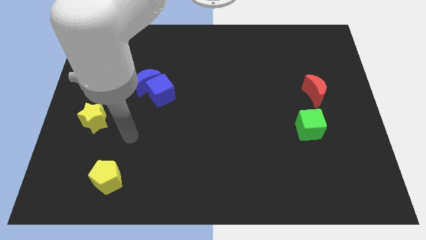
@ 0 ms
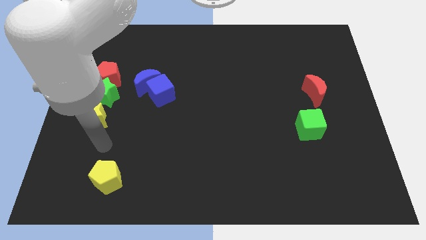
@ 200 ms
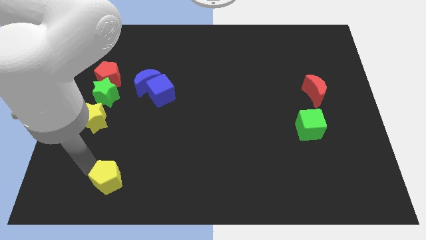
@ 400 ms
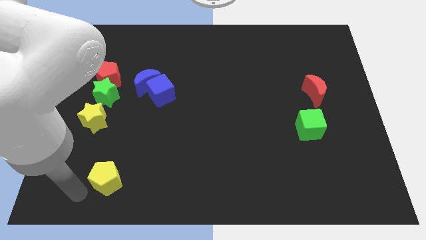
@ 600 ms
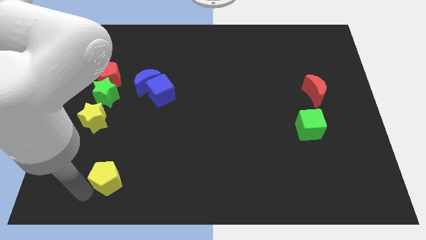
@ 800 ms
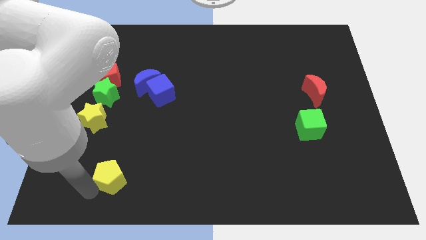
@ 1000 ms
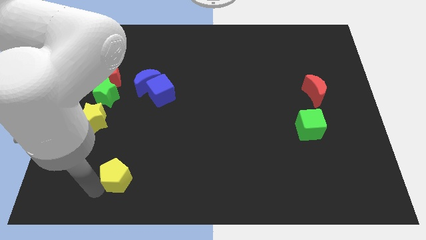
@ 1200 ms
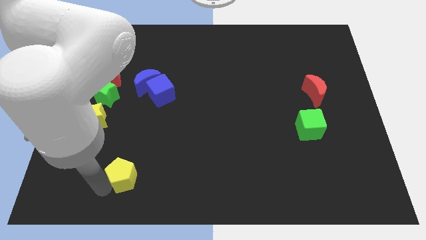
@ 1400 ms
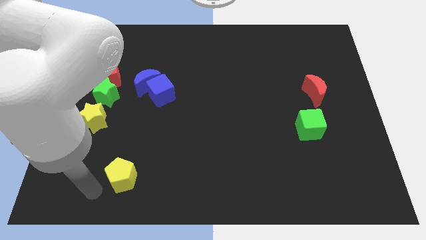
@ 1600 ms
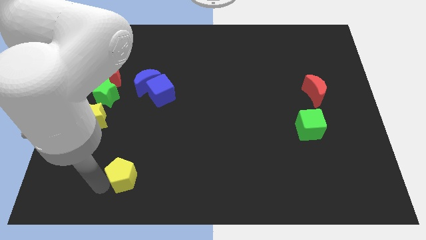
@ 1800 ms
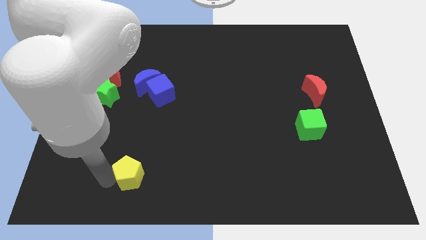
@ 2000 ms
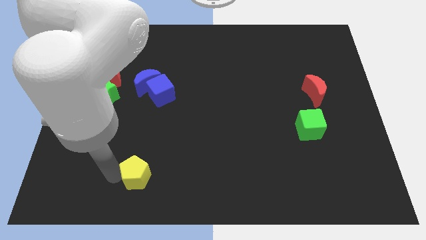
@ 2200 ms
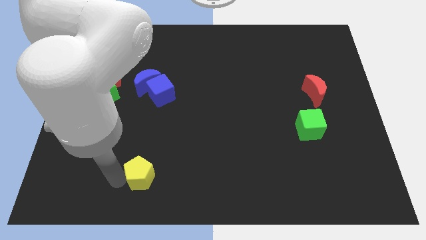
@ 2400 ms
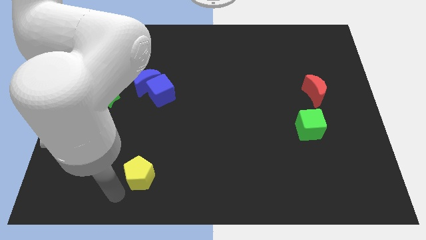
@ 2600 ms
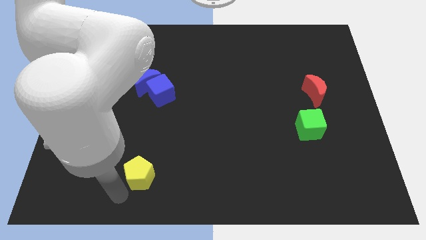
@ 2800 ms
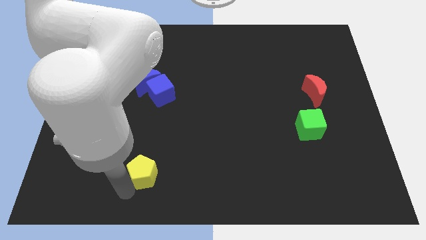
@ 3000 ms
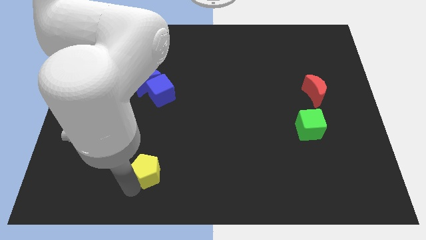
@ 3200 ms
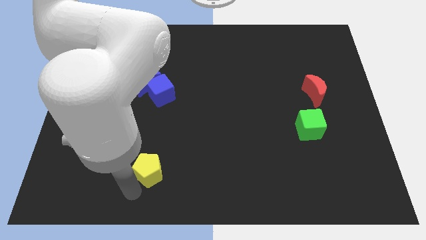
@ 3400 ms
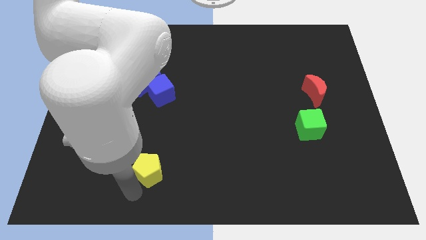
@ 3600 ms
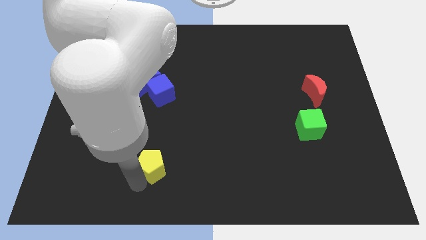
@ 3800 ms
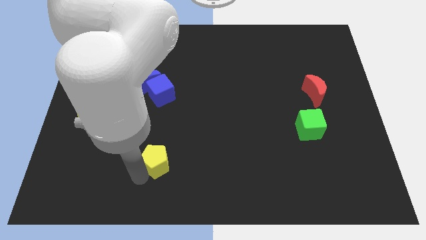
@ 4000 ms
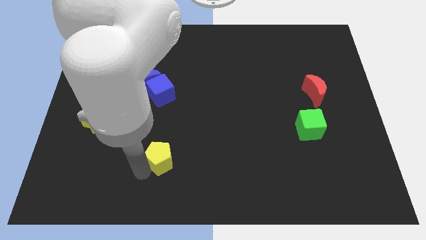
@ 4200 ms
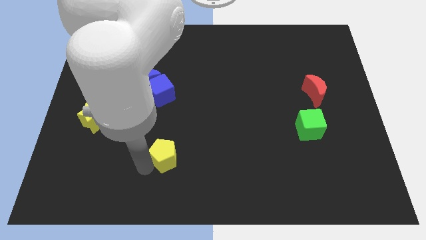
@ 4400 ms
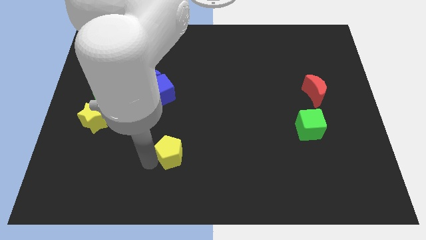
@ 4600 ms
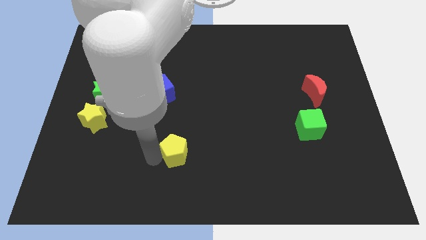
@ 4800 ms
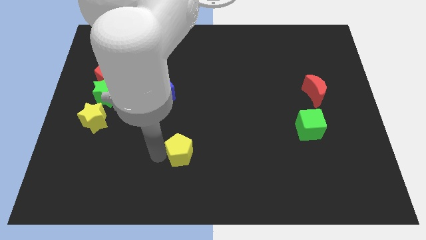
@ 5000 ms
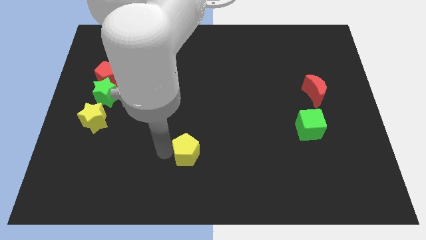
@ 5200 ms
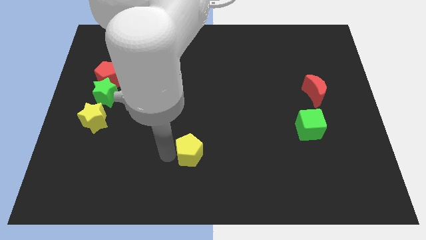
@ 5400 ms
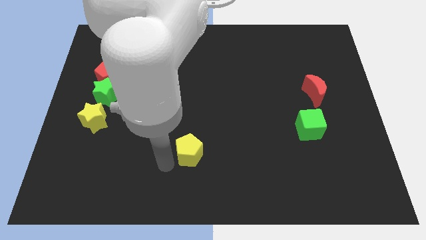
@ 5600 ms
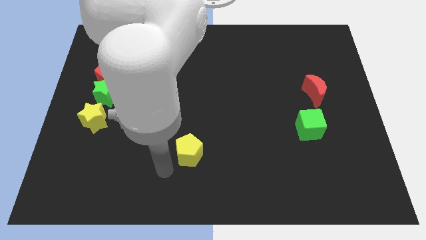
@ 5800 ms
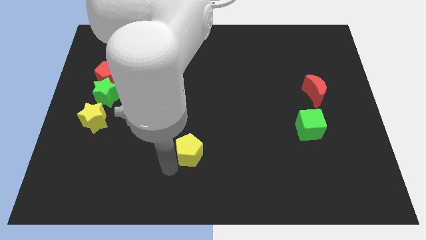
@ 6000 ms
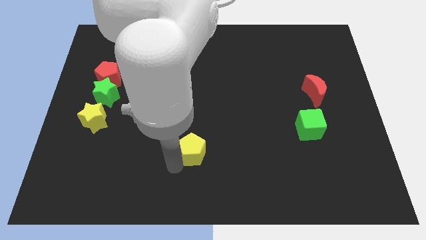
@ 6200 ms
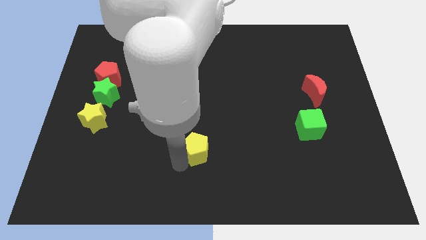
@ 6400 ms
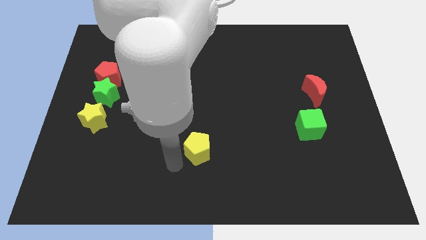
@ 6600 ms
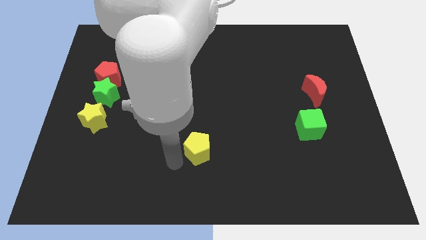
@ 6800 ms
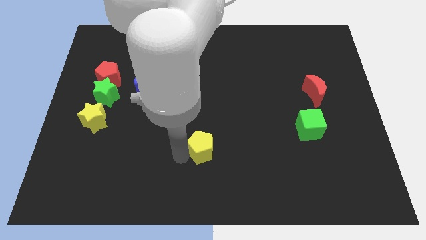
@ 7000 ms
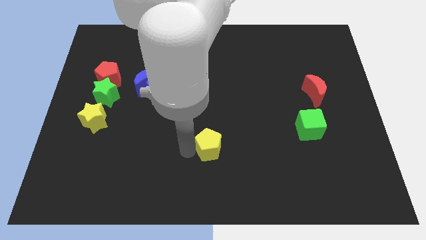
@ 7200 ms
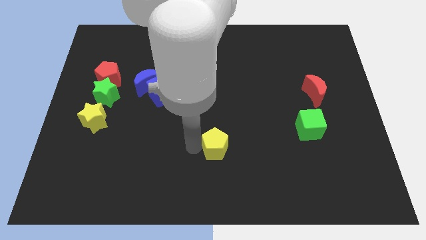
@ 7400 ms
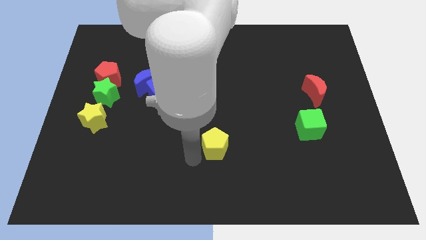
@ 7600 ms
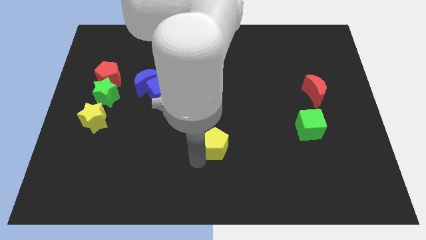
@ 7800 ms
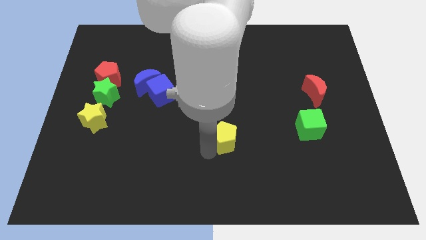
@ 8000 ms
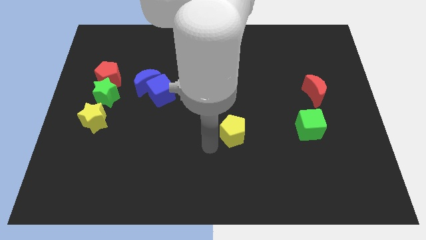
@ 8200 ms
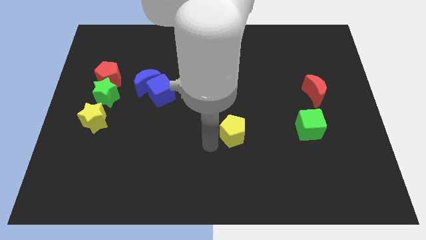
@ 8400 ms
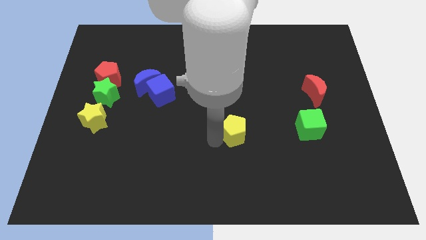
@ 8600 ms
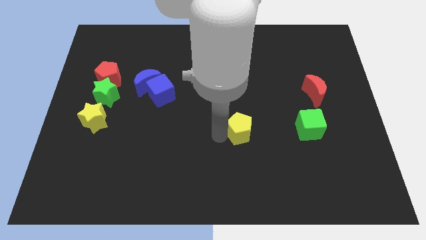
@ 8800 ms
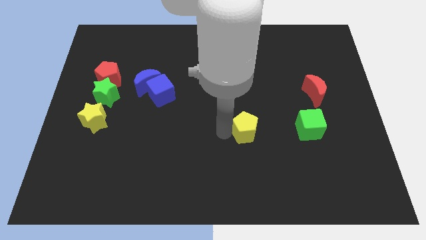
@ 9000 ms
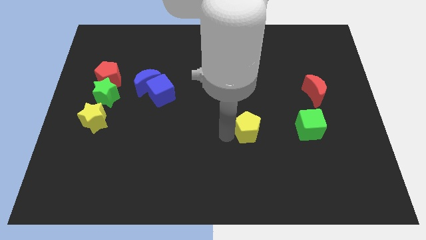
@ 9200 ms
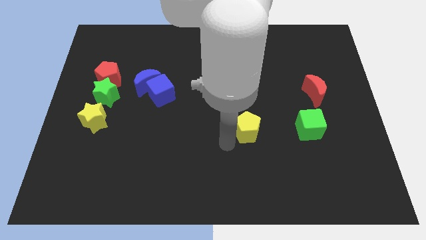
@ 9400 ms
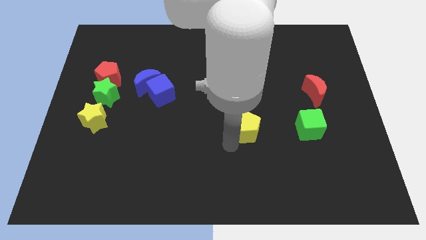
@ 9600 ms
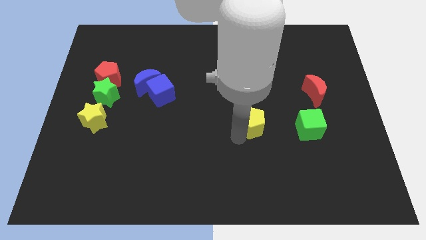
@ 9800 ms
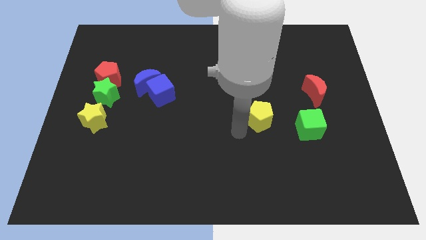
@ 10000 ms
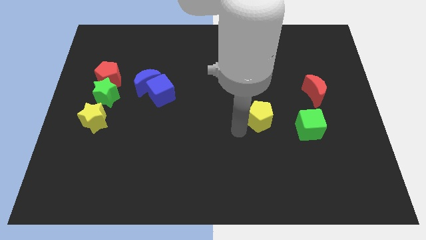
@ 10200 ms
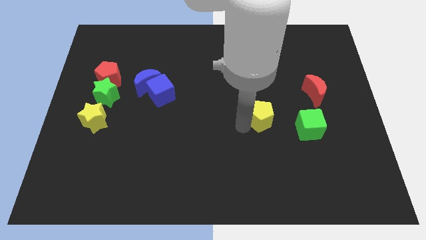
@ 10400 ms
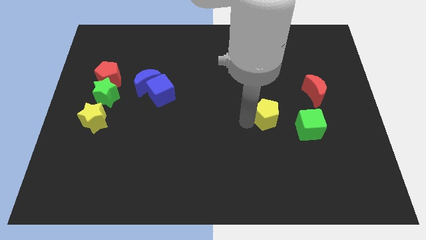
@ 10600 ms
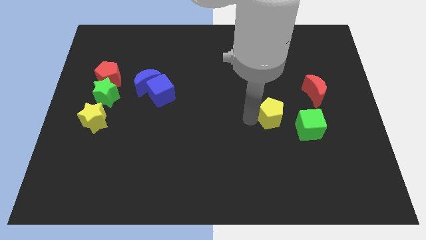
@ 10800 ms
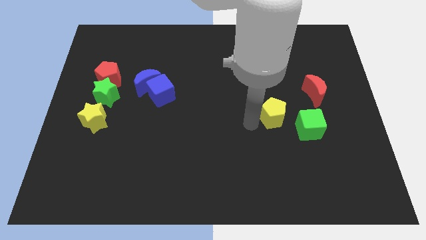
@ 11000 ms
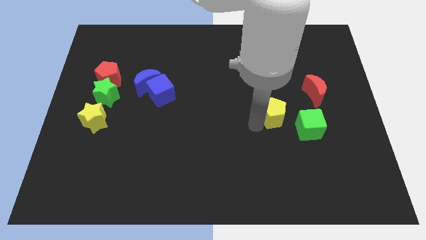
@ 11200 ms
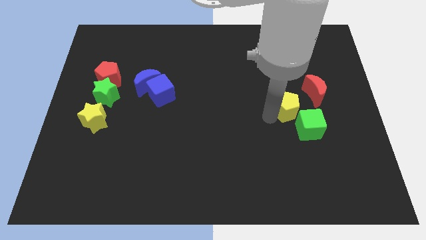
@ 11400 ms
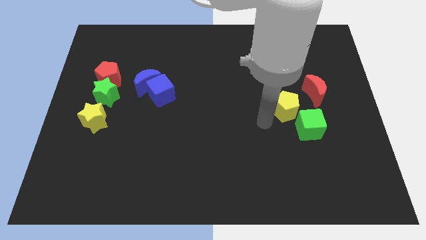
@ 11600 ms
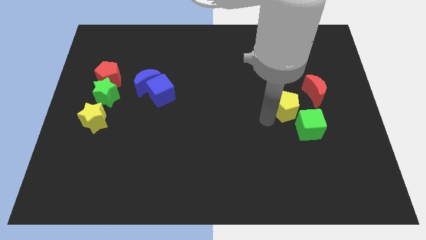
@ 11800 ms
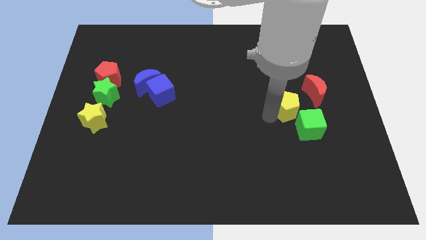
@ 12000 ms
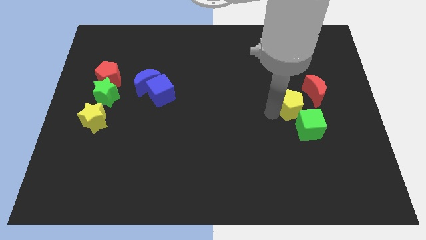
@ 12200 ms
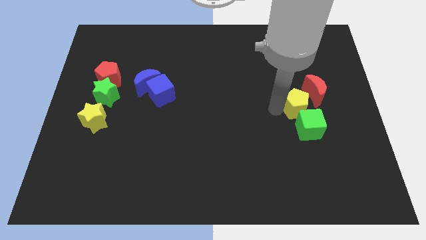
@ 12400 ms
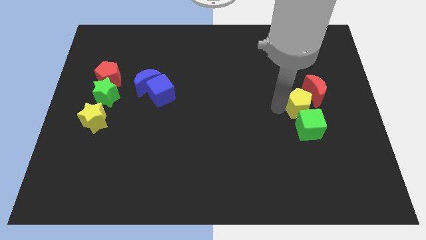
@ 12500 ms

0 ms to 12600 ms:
slide the yellow pentagon next to the red moon

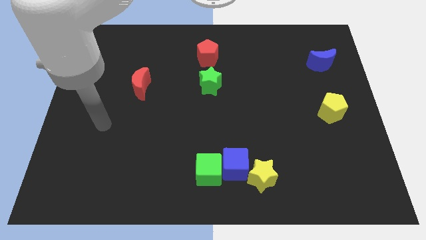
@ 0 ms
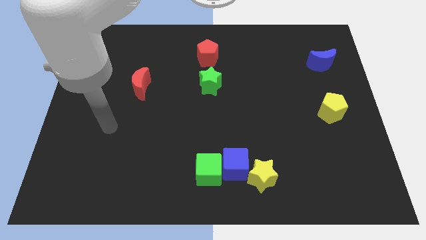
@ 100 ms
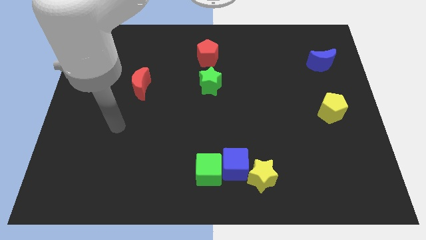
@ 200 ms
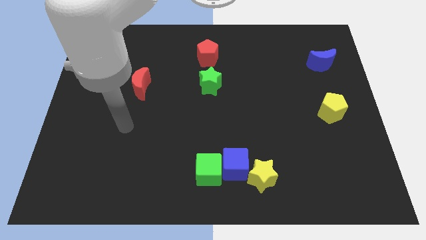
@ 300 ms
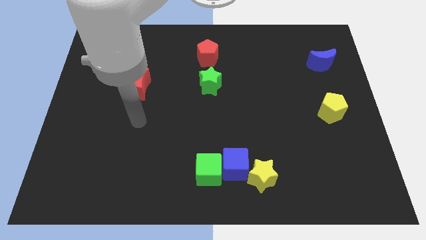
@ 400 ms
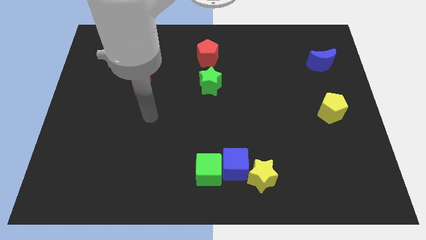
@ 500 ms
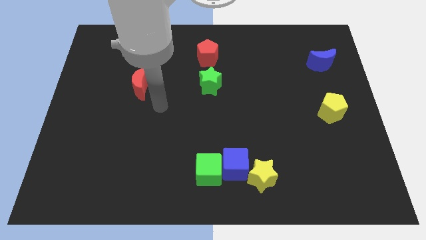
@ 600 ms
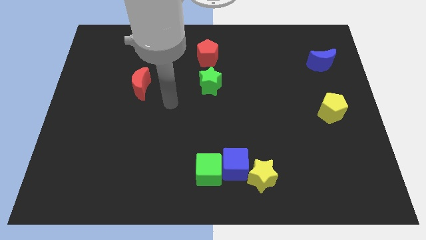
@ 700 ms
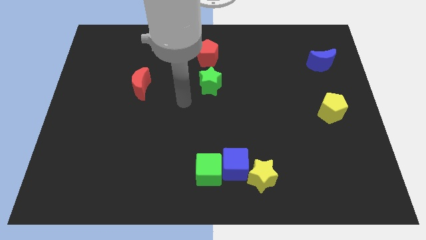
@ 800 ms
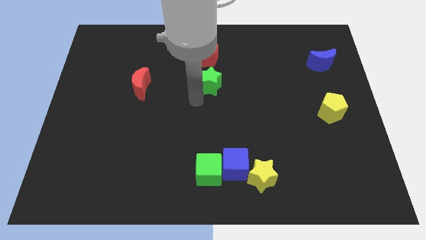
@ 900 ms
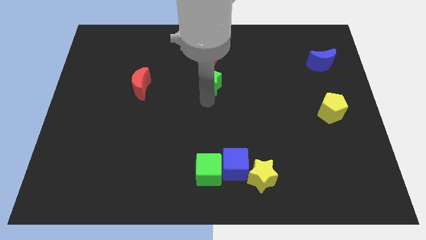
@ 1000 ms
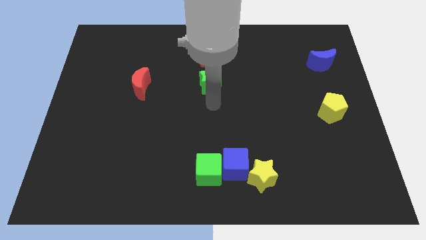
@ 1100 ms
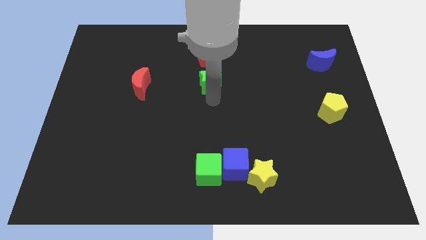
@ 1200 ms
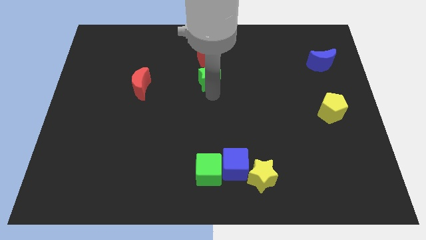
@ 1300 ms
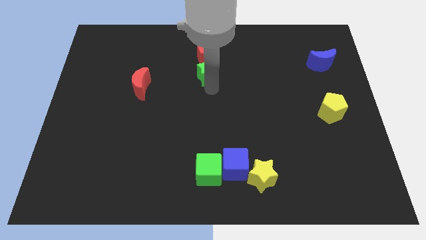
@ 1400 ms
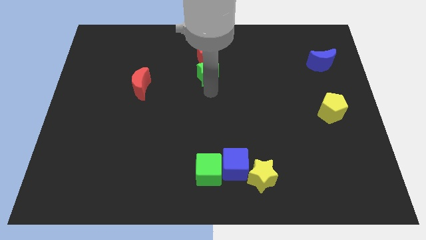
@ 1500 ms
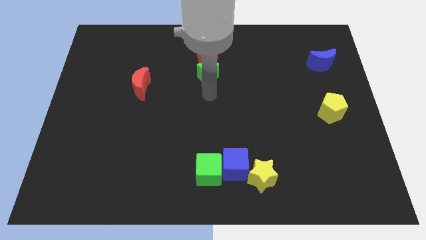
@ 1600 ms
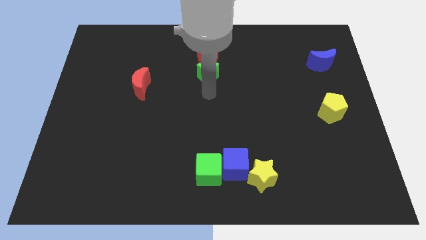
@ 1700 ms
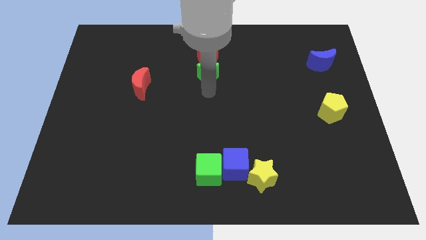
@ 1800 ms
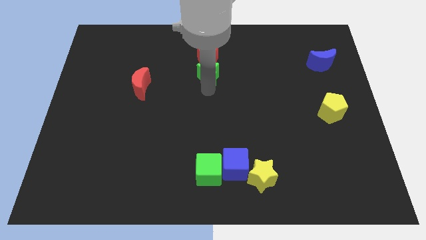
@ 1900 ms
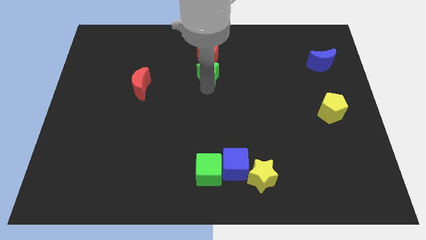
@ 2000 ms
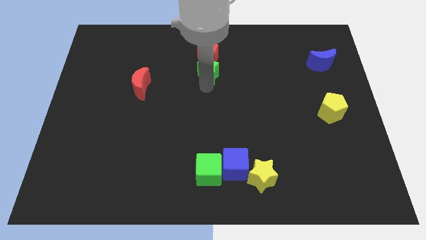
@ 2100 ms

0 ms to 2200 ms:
push the green star to the red pentagon
